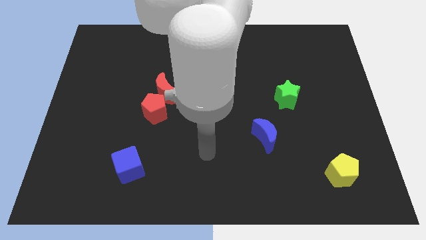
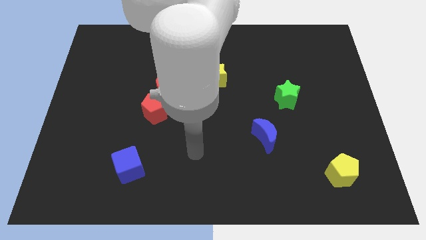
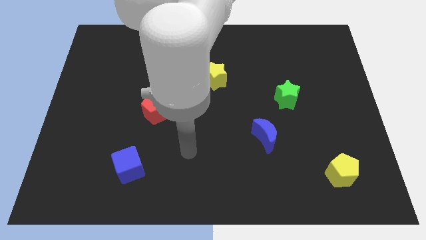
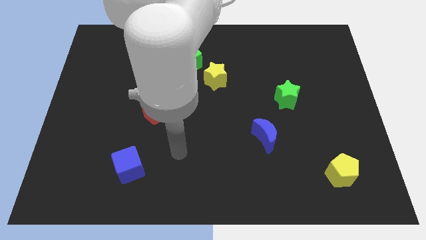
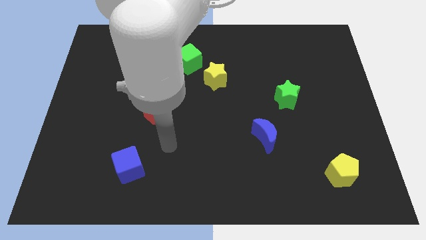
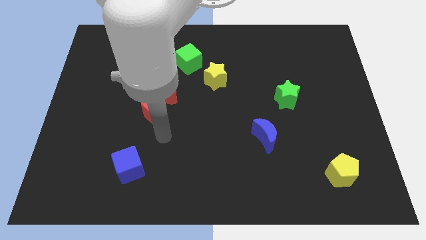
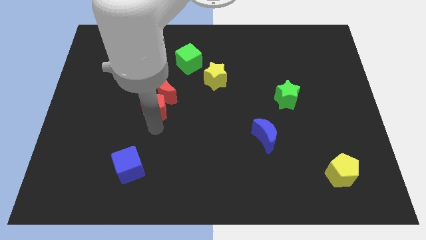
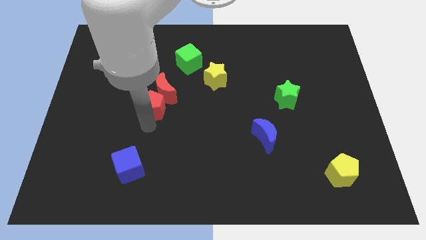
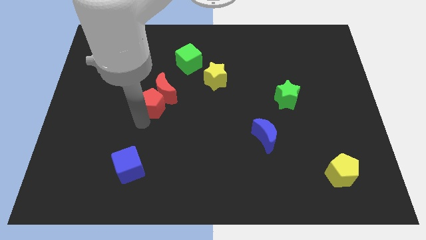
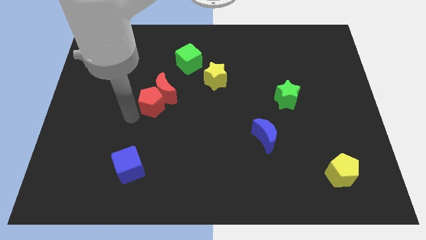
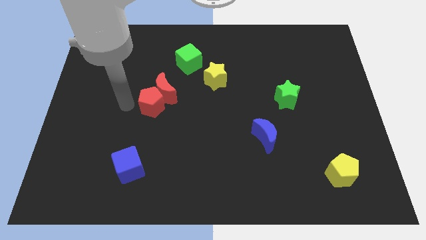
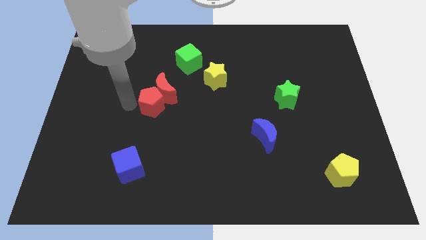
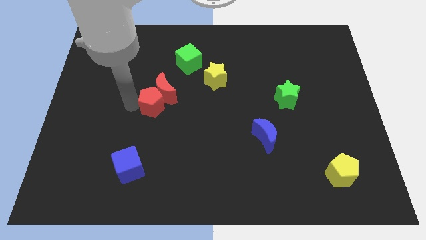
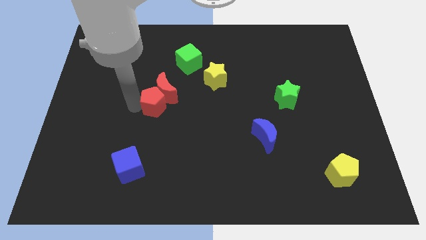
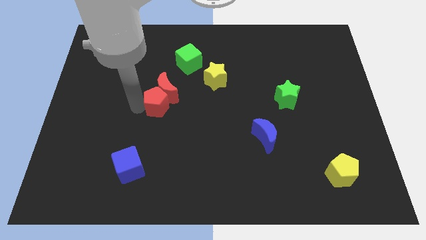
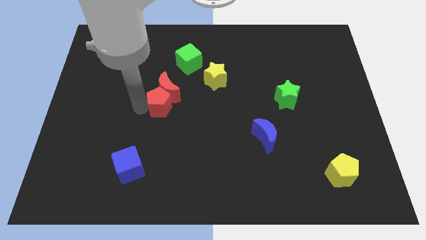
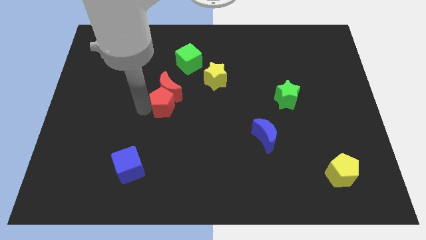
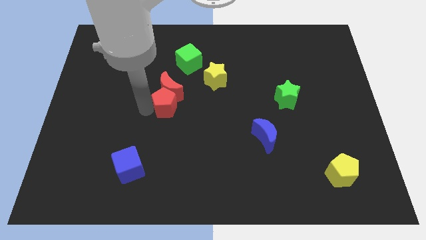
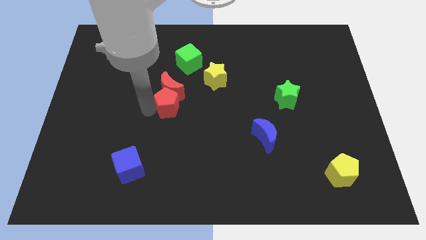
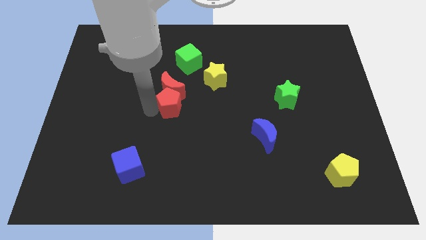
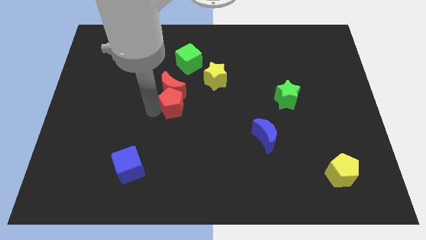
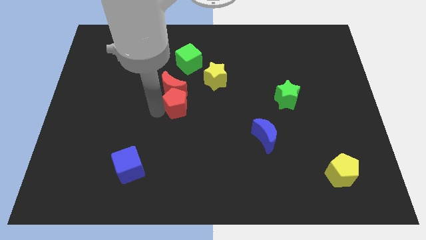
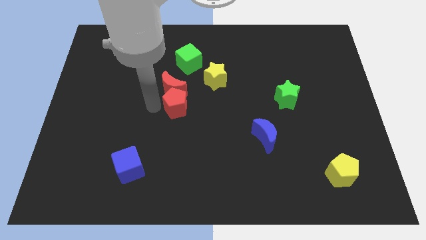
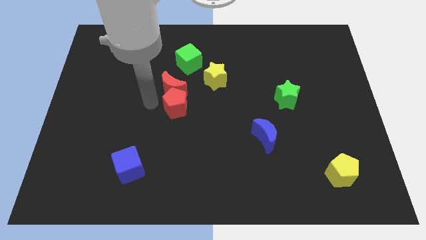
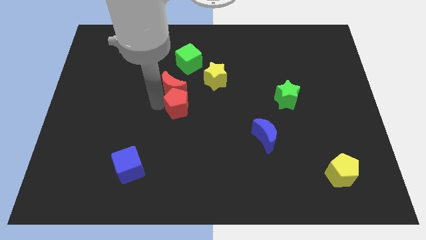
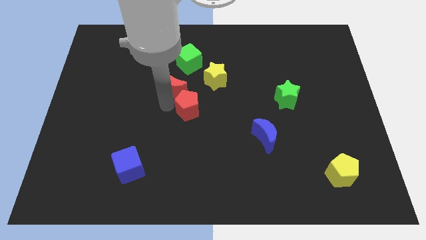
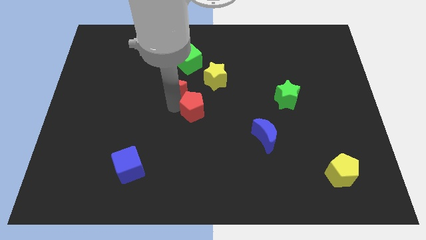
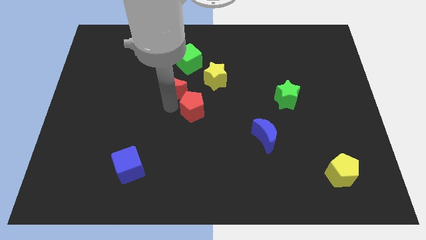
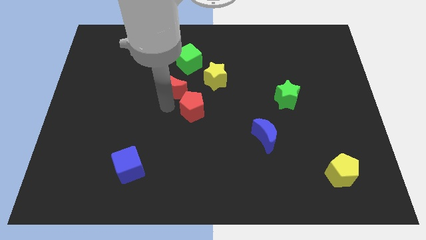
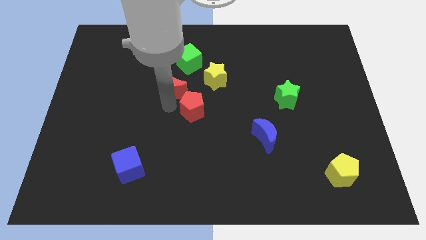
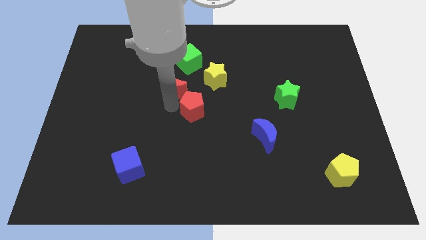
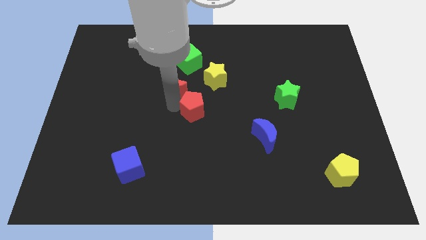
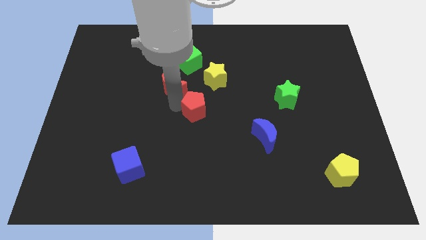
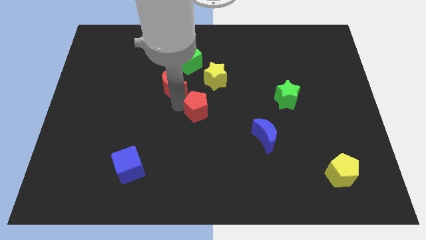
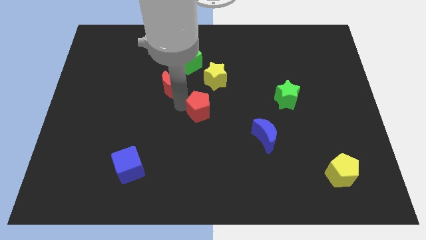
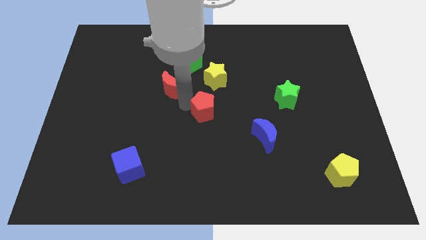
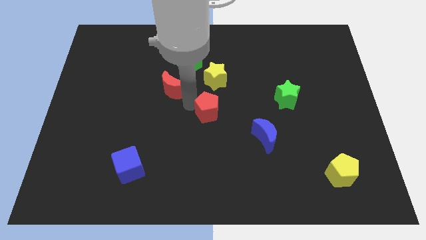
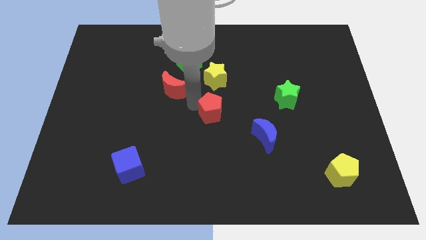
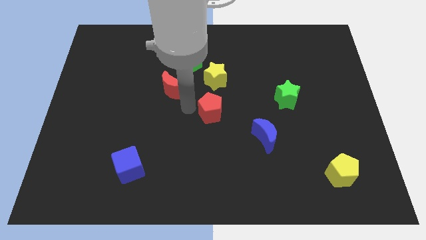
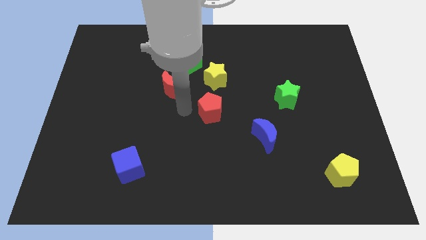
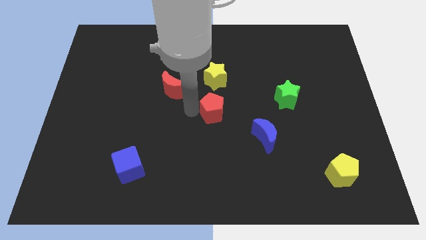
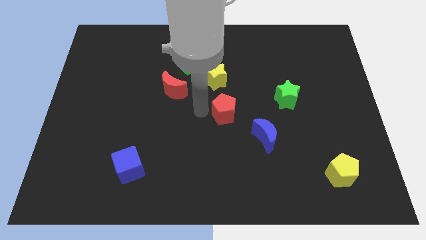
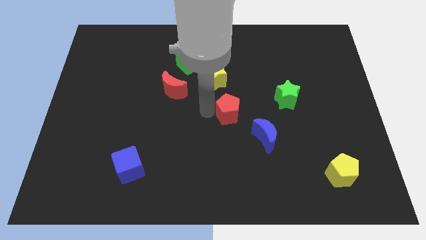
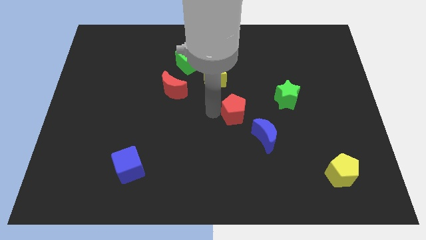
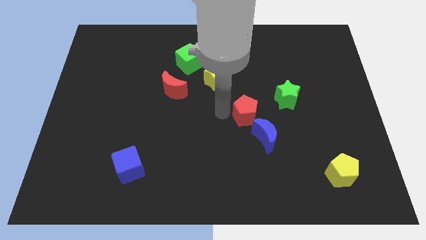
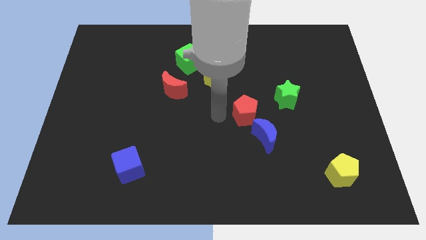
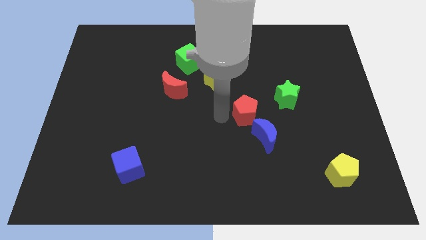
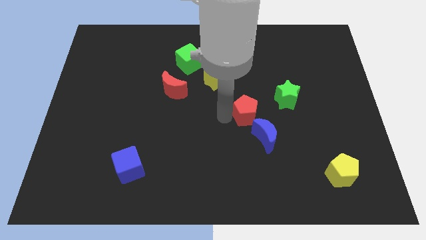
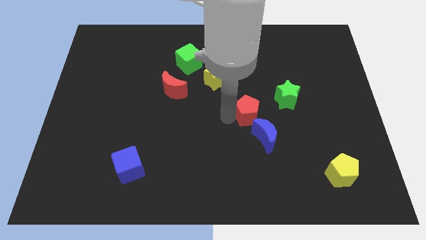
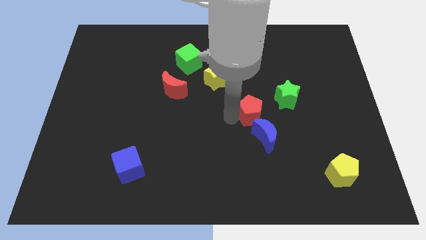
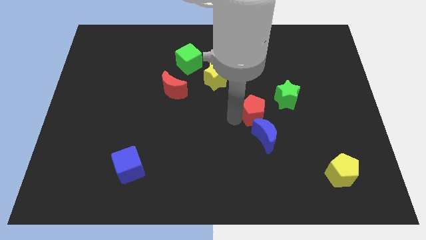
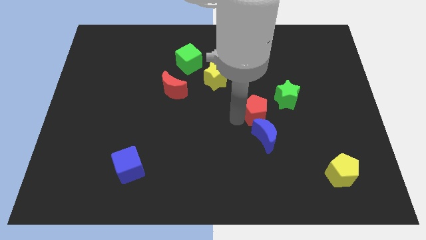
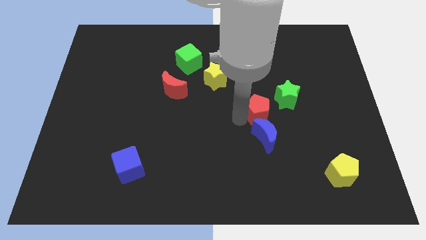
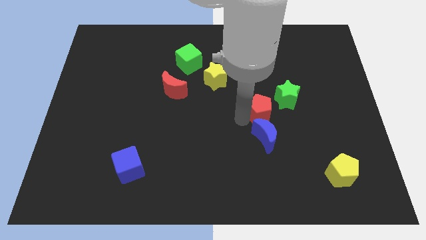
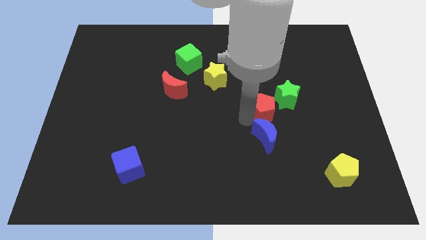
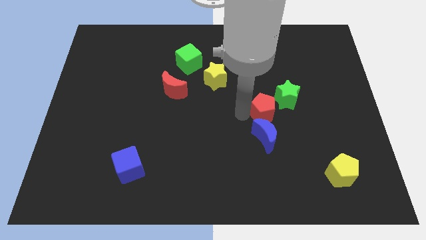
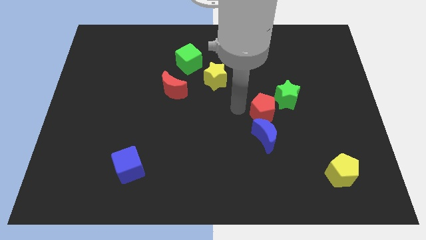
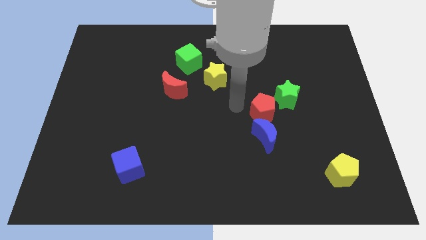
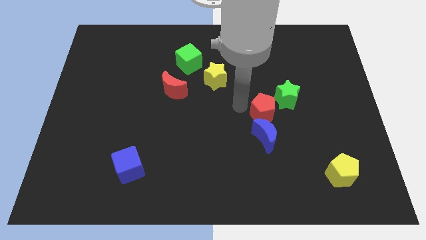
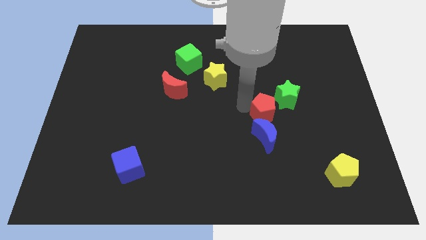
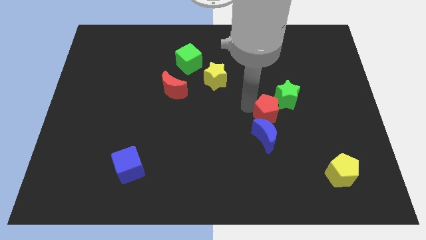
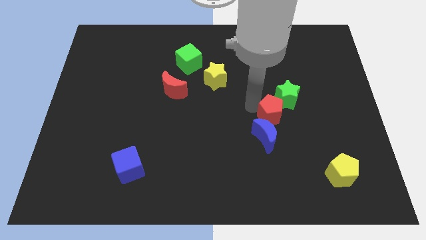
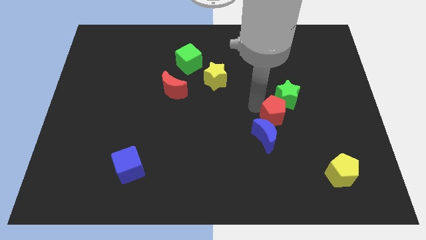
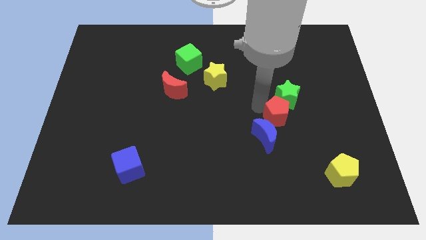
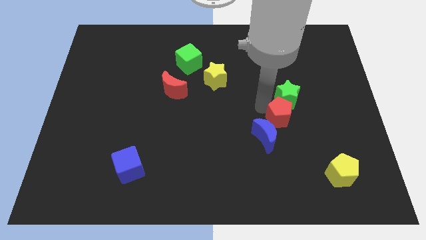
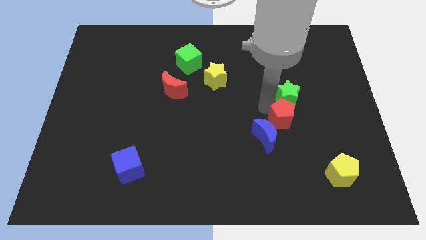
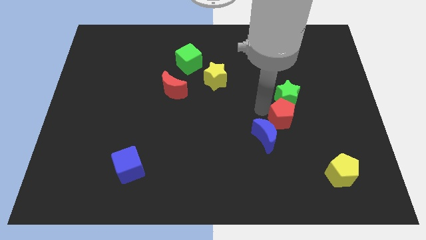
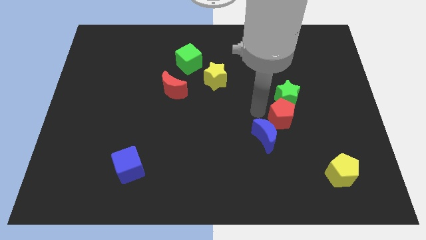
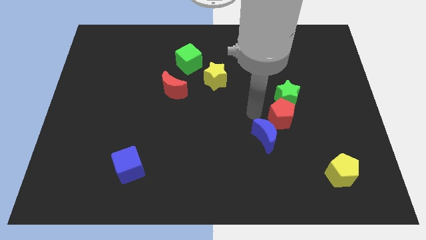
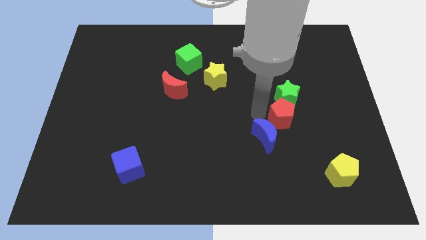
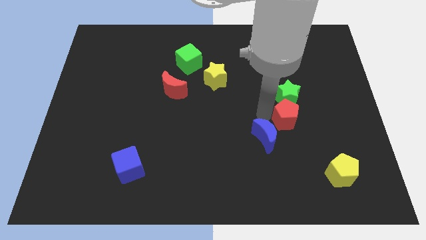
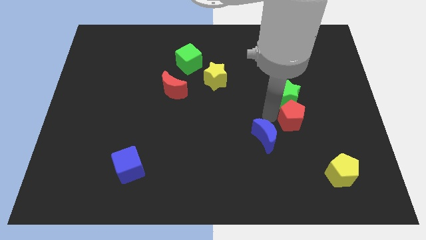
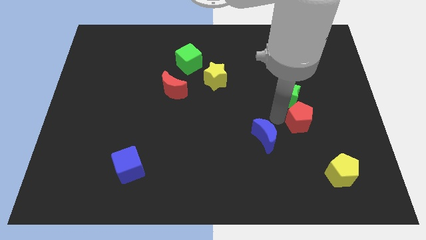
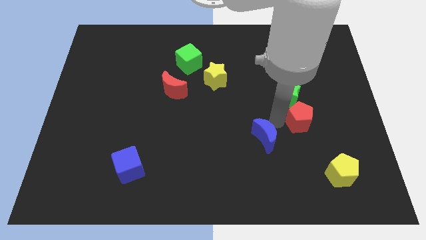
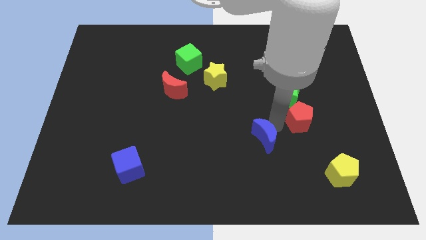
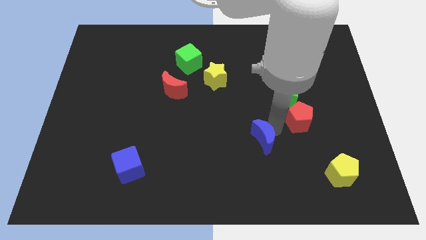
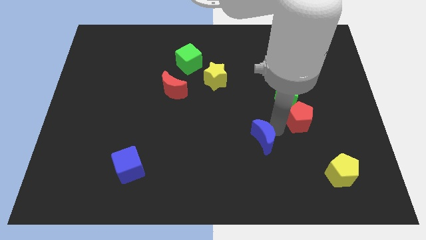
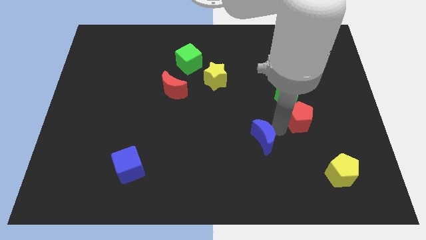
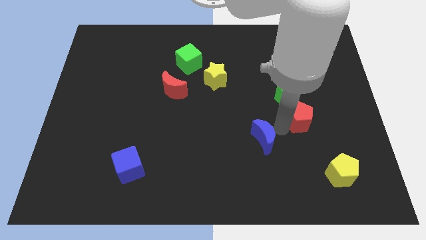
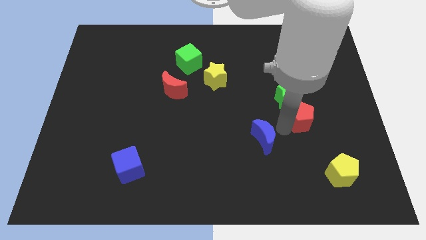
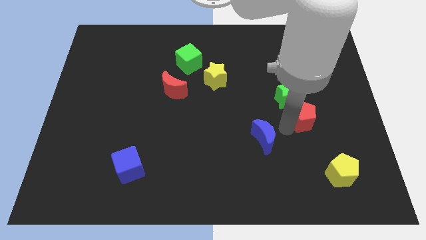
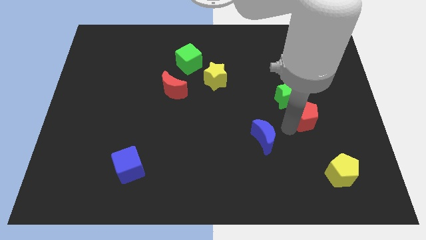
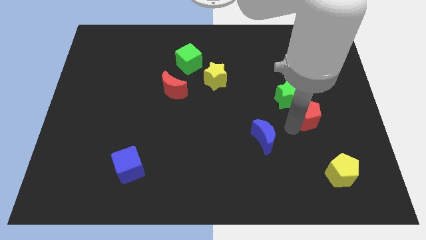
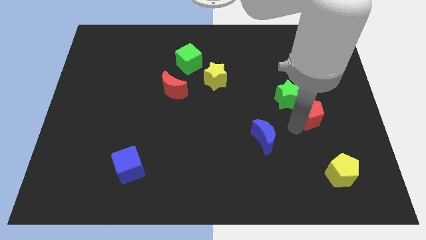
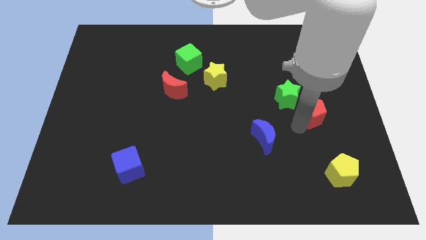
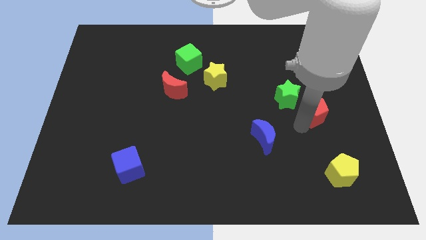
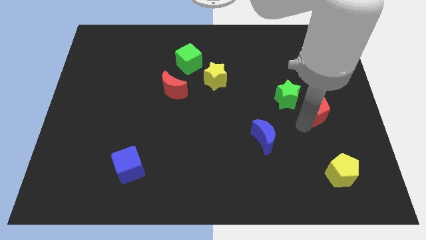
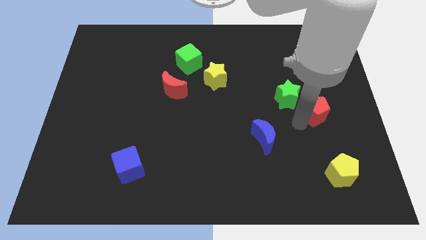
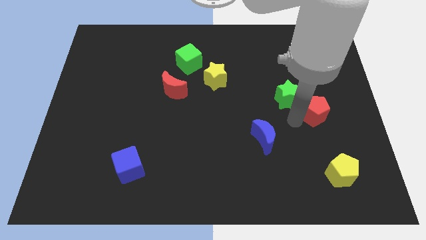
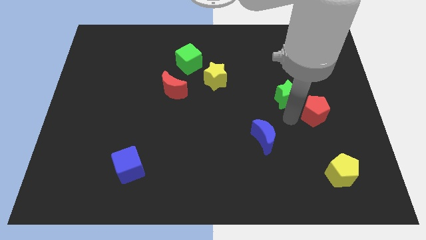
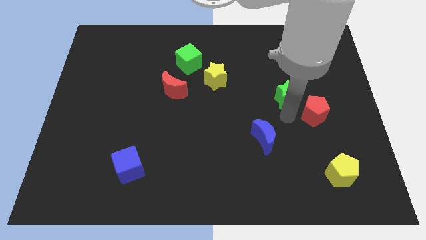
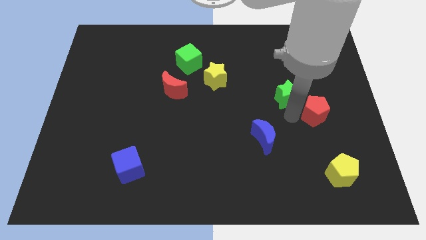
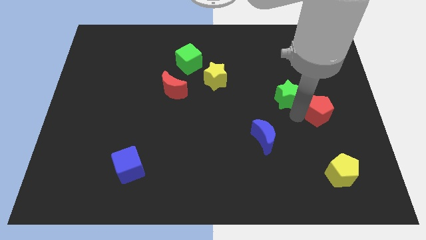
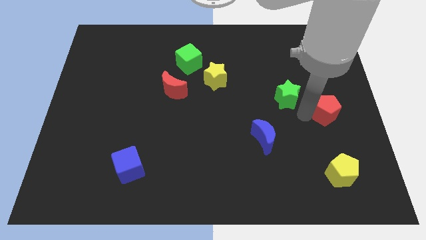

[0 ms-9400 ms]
push the red pentagon to the right side
